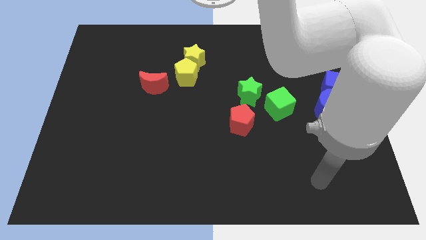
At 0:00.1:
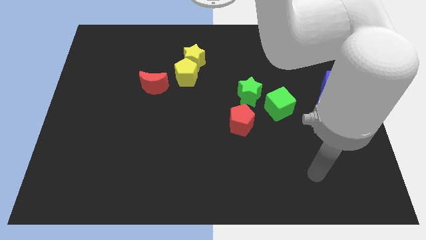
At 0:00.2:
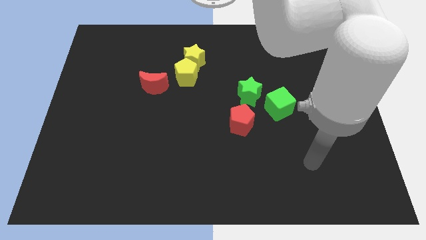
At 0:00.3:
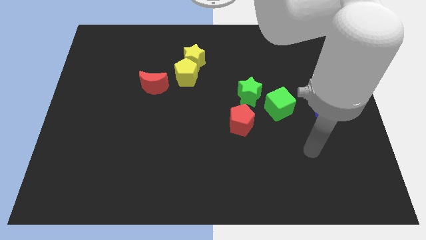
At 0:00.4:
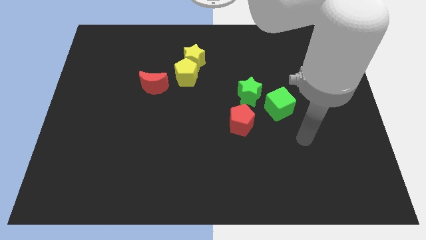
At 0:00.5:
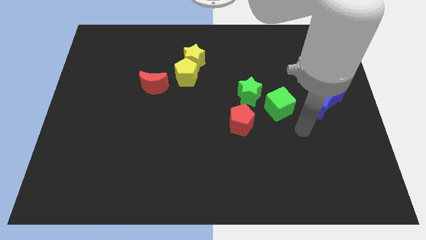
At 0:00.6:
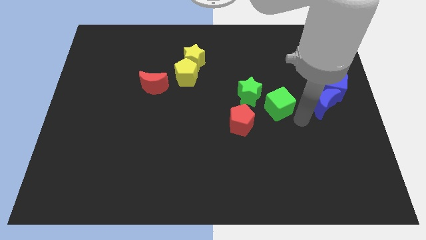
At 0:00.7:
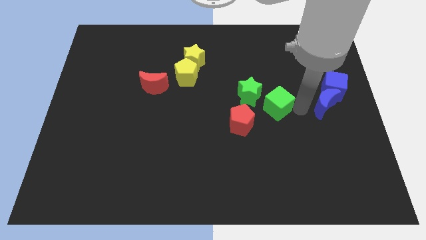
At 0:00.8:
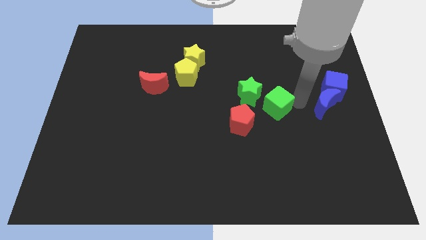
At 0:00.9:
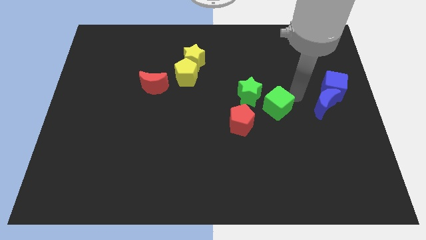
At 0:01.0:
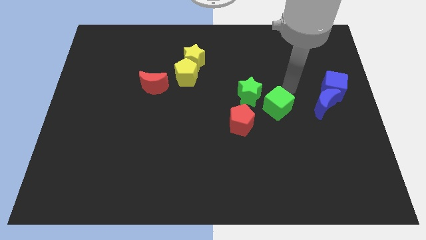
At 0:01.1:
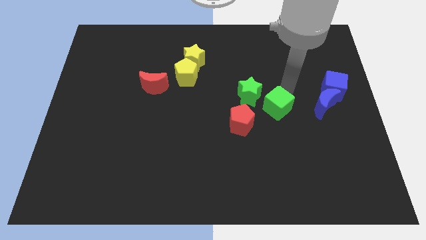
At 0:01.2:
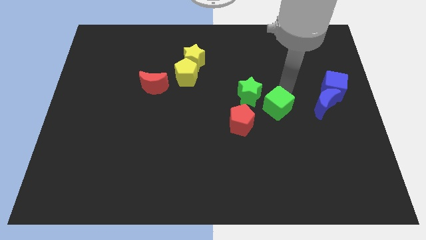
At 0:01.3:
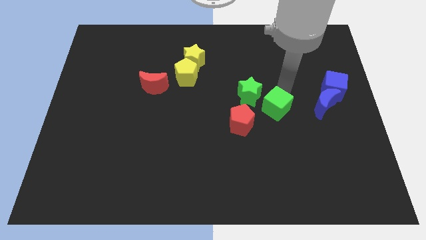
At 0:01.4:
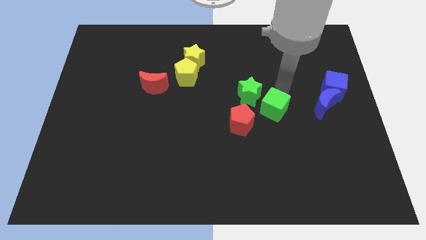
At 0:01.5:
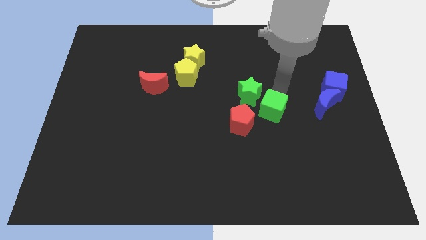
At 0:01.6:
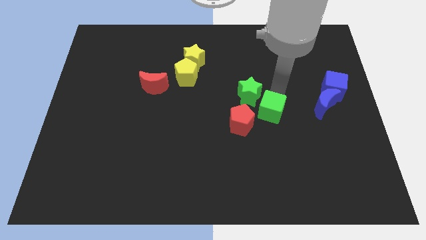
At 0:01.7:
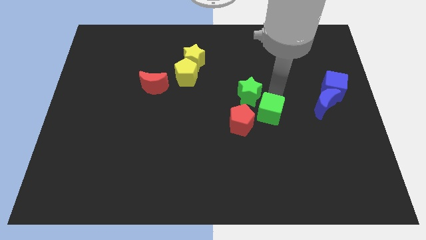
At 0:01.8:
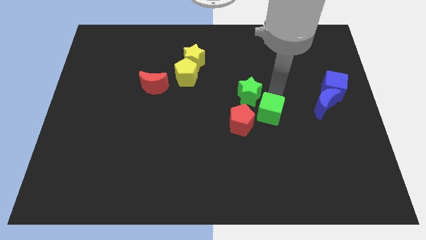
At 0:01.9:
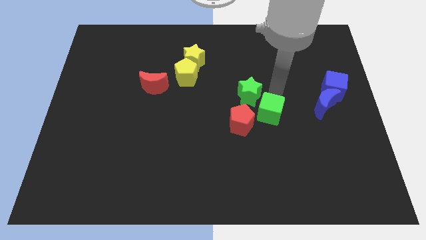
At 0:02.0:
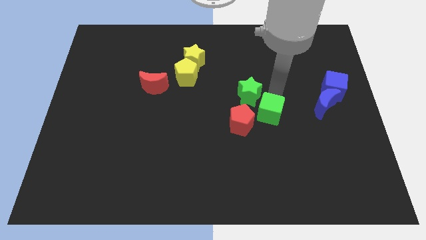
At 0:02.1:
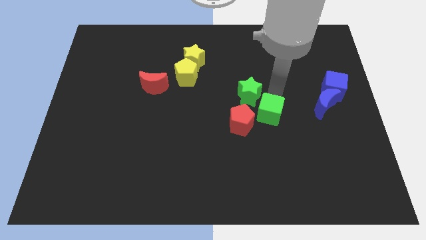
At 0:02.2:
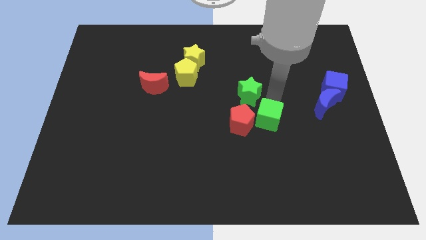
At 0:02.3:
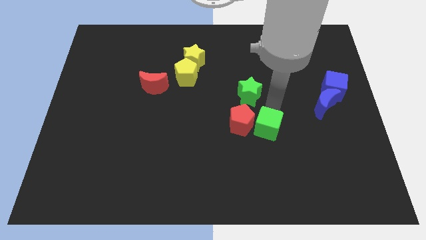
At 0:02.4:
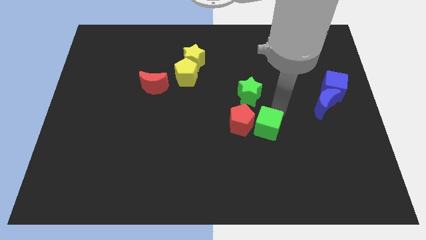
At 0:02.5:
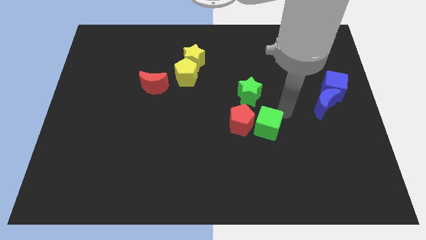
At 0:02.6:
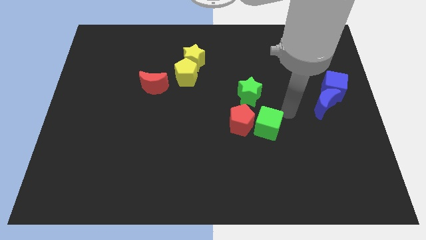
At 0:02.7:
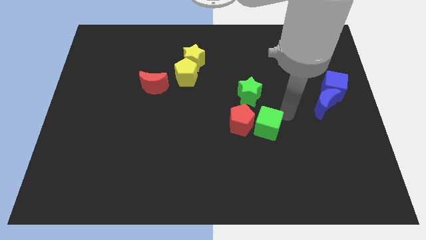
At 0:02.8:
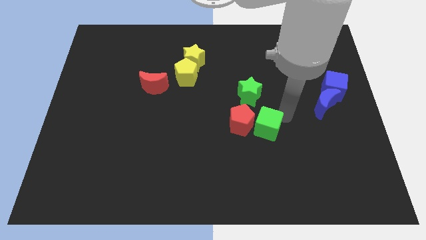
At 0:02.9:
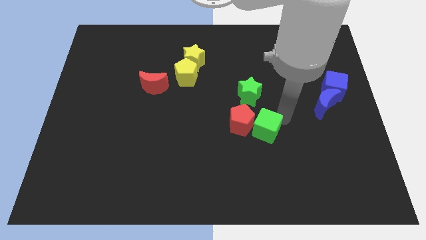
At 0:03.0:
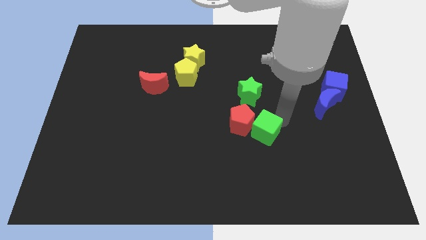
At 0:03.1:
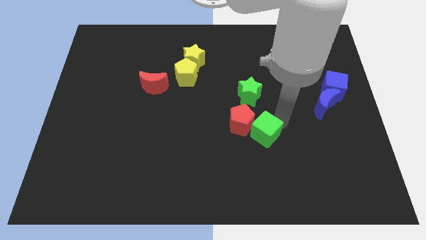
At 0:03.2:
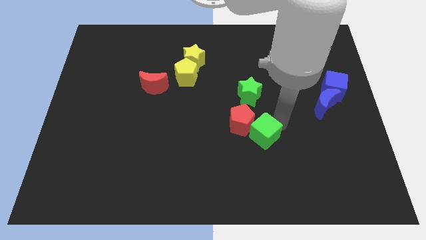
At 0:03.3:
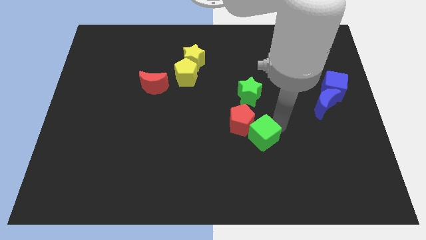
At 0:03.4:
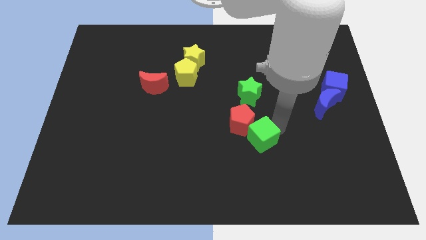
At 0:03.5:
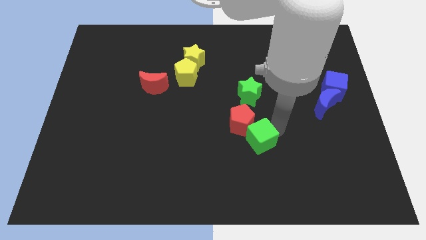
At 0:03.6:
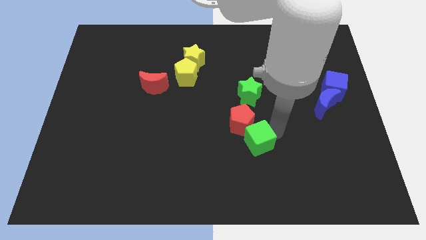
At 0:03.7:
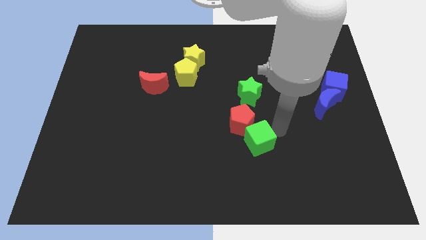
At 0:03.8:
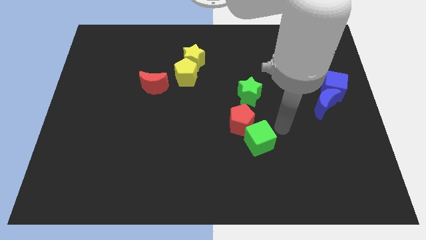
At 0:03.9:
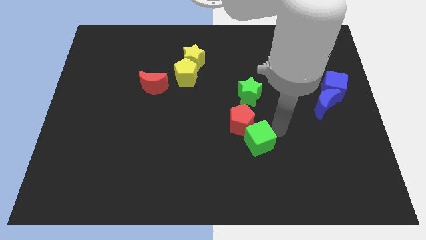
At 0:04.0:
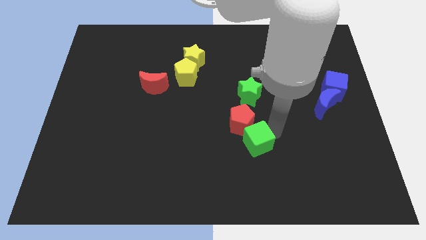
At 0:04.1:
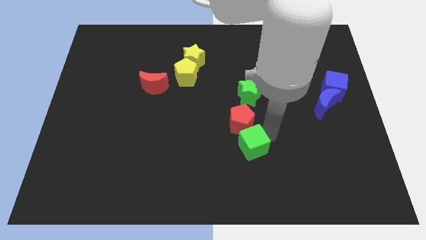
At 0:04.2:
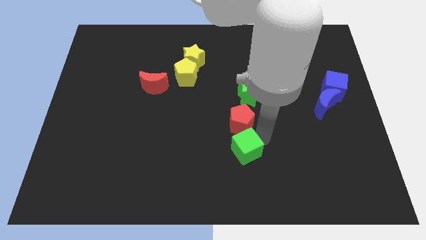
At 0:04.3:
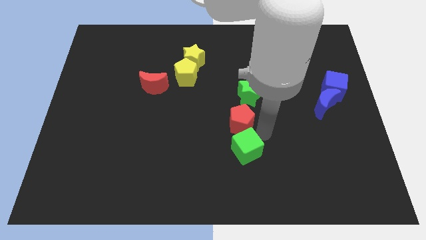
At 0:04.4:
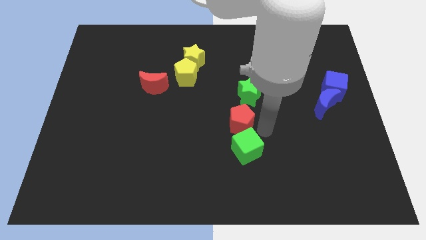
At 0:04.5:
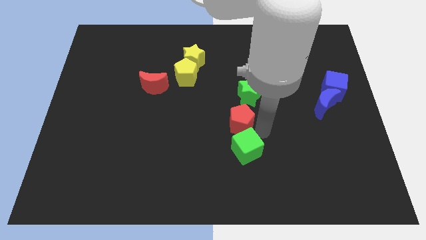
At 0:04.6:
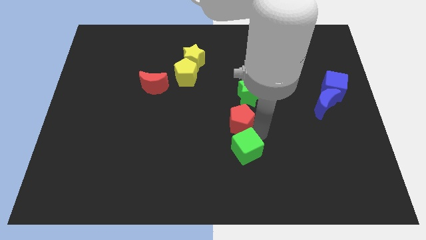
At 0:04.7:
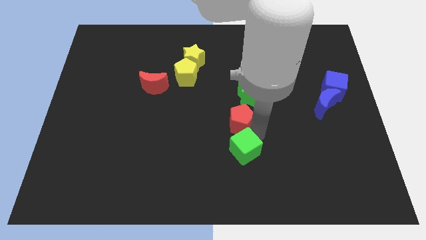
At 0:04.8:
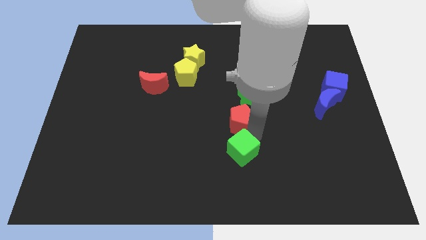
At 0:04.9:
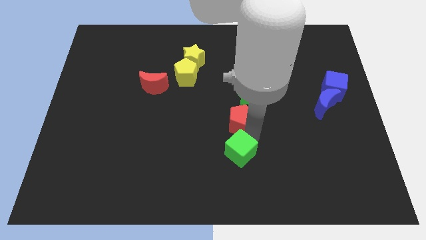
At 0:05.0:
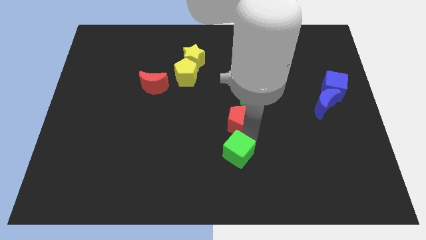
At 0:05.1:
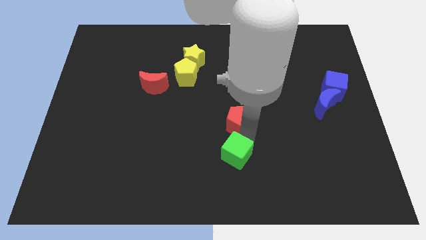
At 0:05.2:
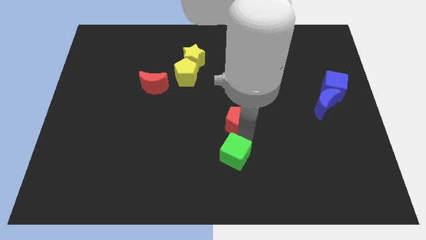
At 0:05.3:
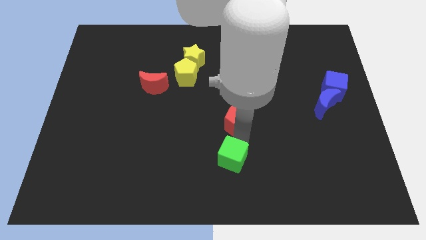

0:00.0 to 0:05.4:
push the green cube to the bottom

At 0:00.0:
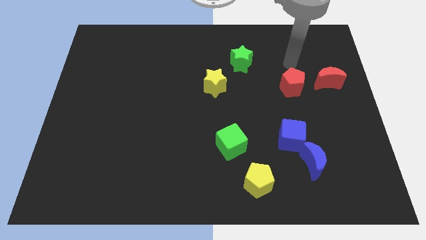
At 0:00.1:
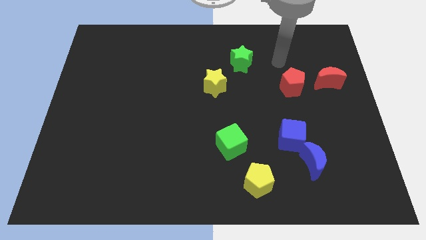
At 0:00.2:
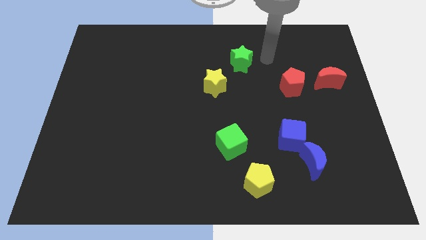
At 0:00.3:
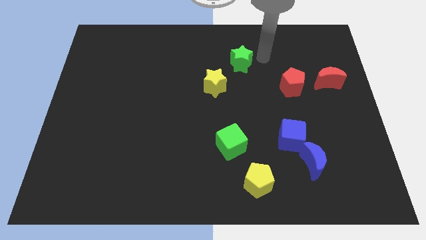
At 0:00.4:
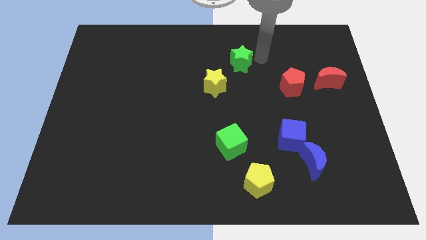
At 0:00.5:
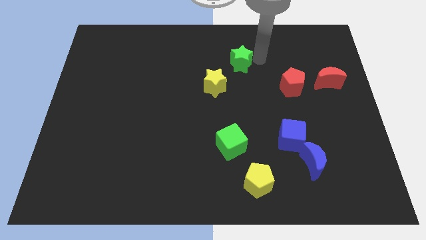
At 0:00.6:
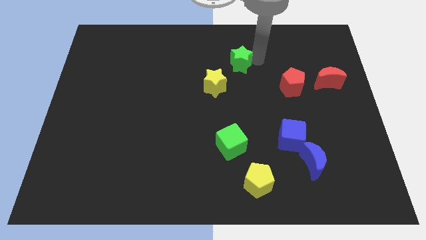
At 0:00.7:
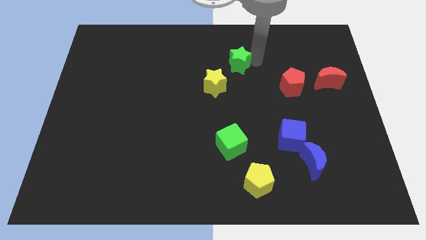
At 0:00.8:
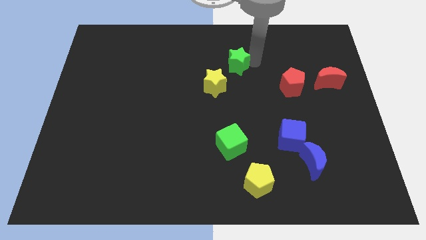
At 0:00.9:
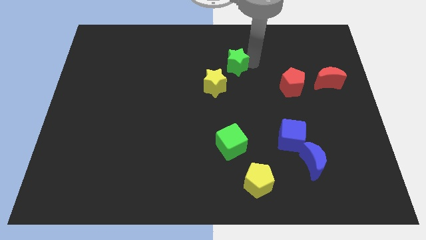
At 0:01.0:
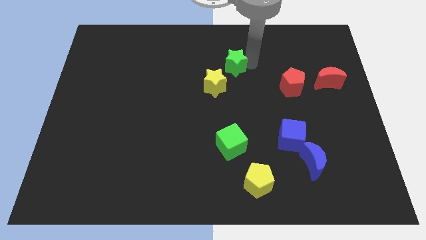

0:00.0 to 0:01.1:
slide the green star to the middle
